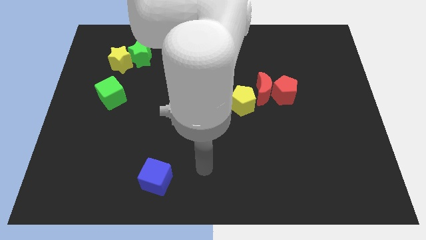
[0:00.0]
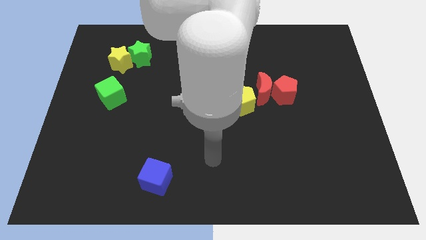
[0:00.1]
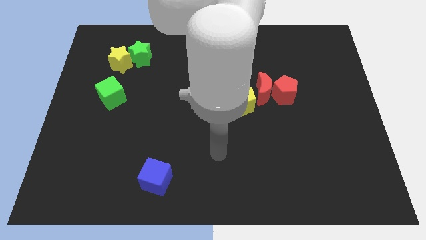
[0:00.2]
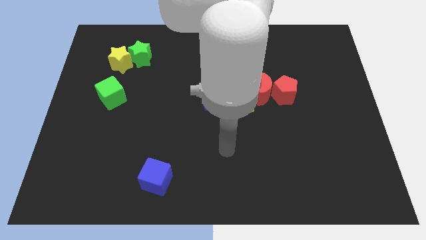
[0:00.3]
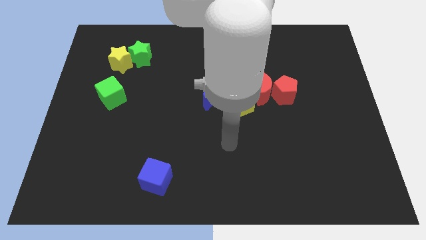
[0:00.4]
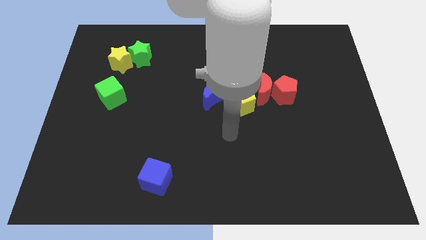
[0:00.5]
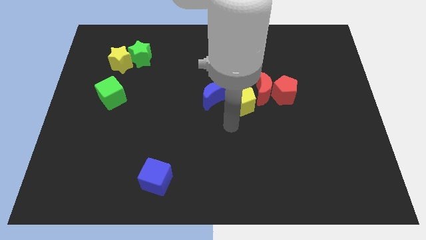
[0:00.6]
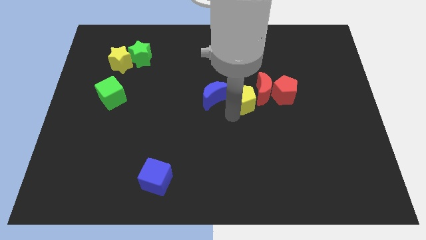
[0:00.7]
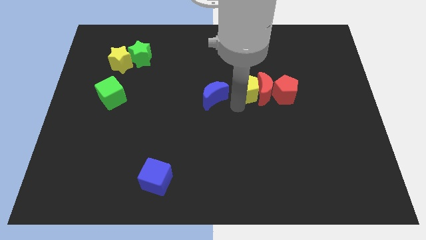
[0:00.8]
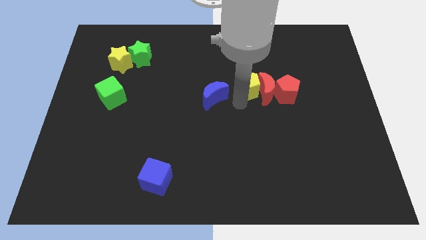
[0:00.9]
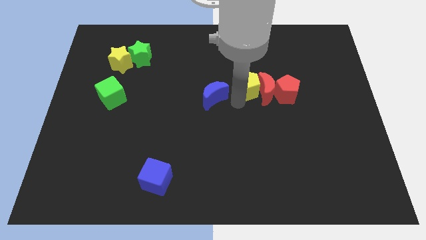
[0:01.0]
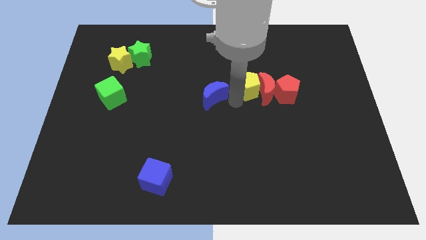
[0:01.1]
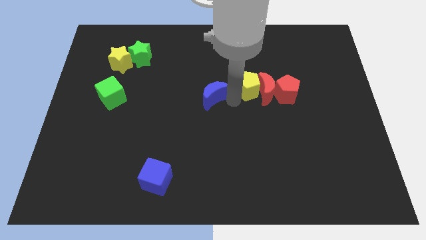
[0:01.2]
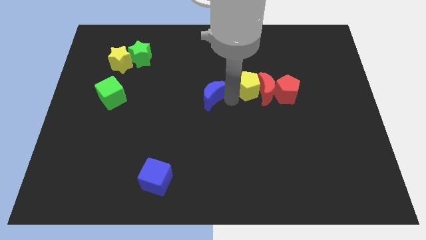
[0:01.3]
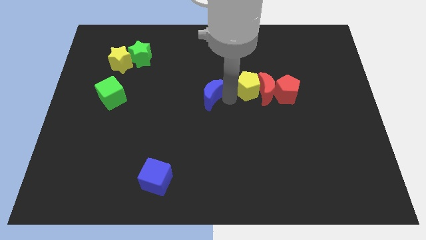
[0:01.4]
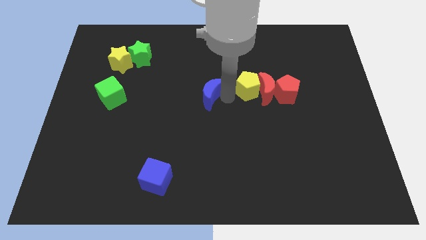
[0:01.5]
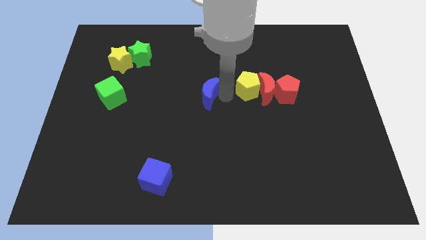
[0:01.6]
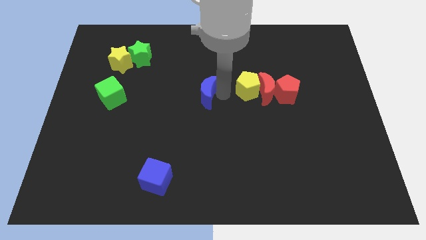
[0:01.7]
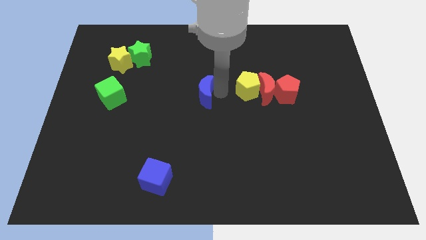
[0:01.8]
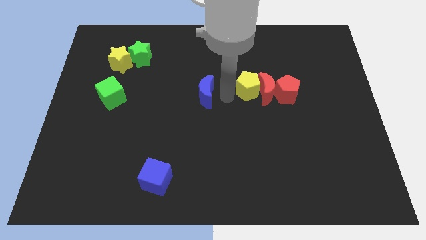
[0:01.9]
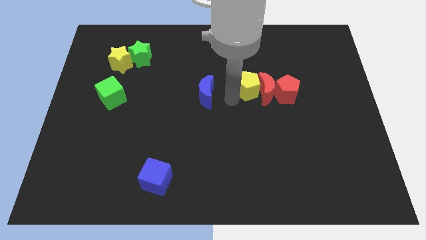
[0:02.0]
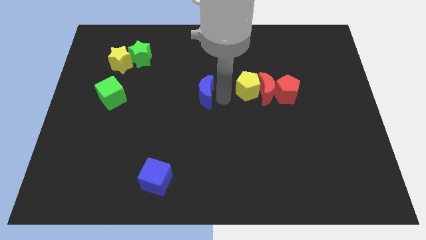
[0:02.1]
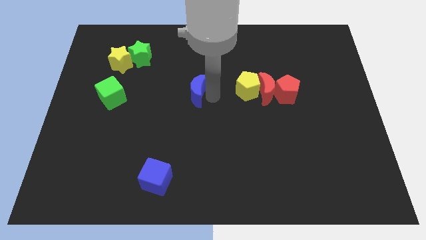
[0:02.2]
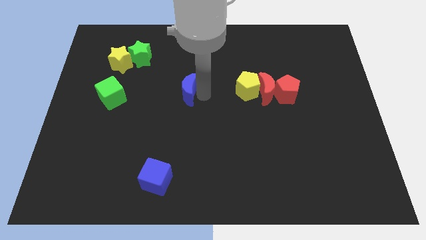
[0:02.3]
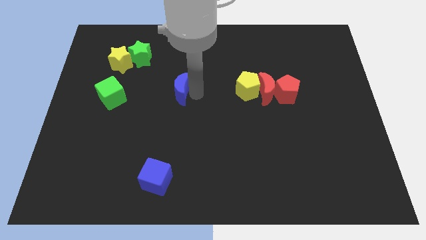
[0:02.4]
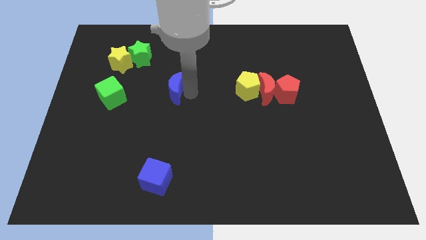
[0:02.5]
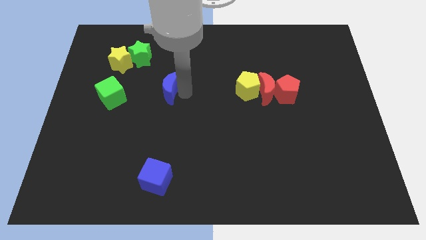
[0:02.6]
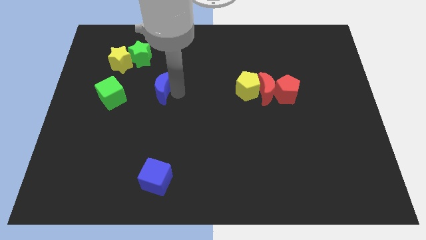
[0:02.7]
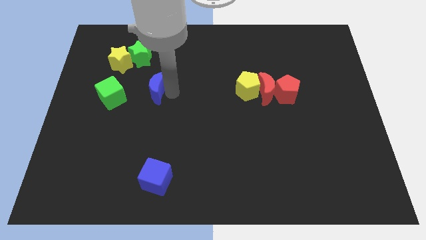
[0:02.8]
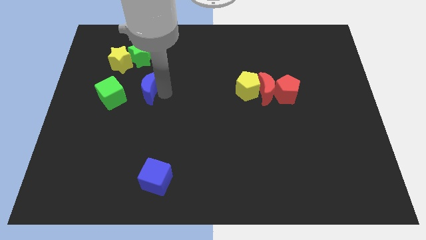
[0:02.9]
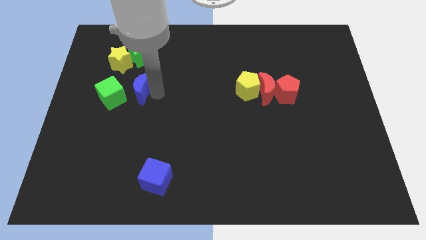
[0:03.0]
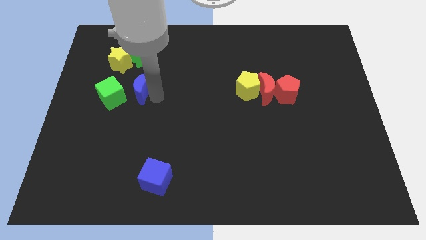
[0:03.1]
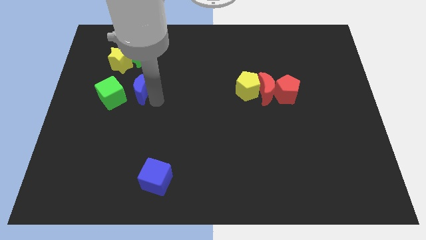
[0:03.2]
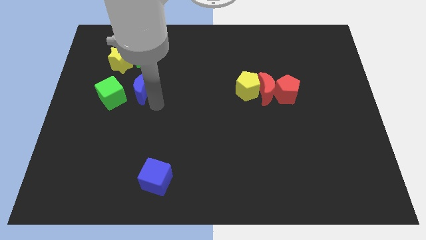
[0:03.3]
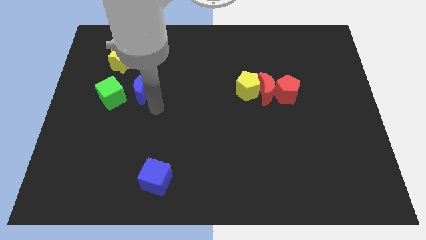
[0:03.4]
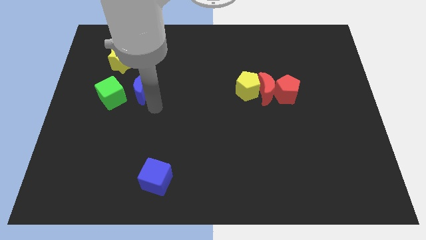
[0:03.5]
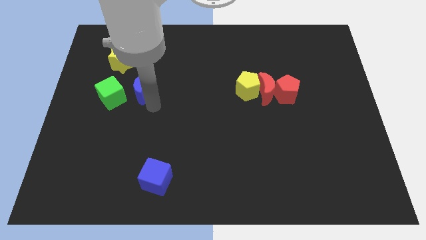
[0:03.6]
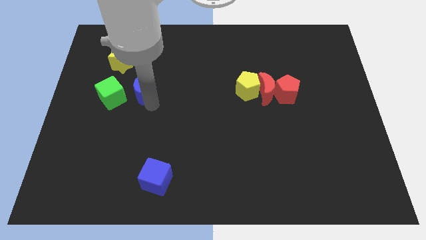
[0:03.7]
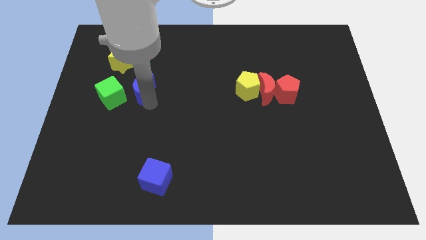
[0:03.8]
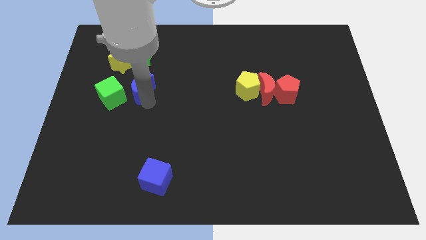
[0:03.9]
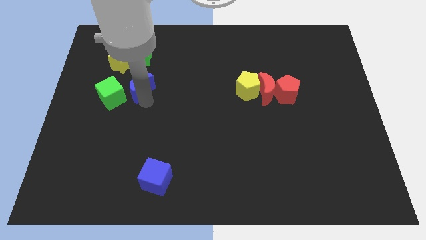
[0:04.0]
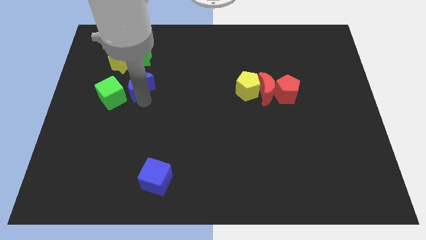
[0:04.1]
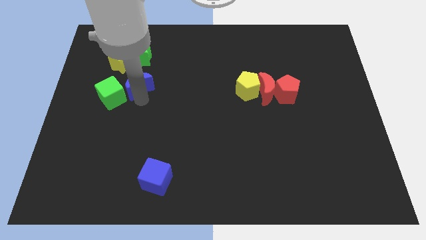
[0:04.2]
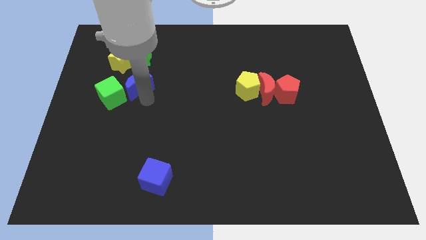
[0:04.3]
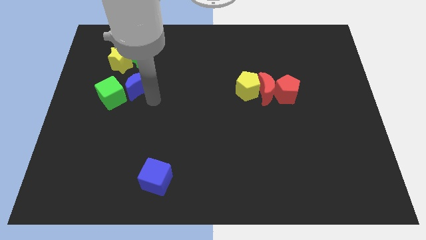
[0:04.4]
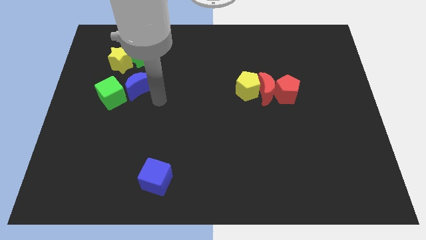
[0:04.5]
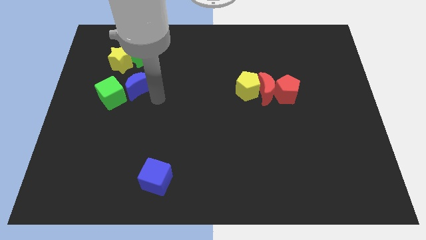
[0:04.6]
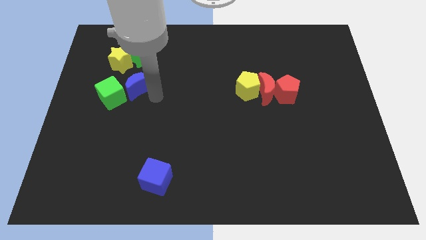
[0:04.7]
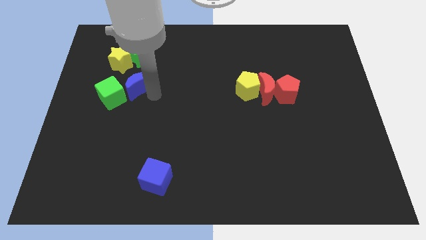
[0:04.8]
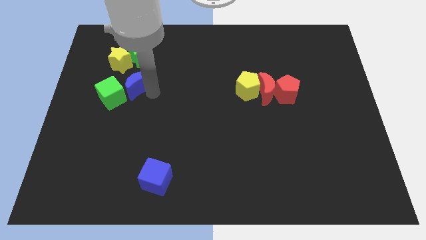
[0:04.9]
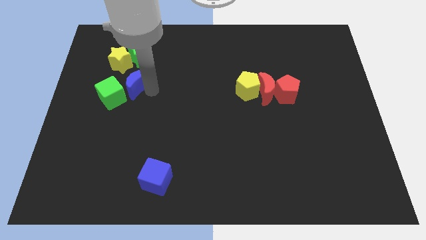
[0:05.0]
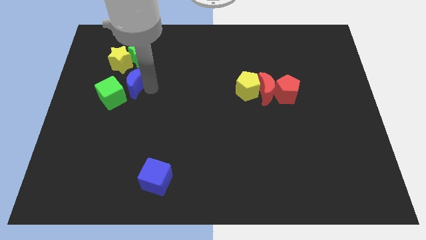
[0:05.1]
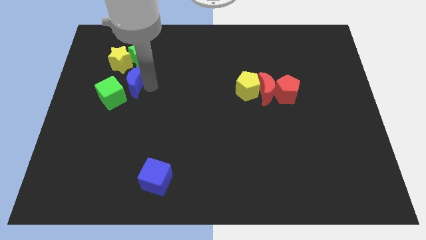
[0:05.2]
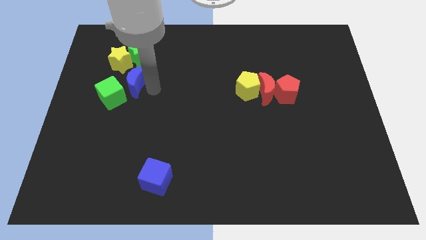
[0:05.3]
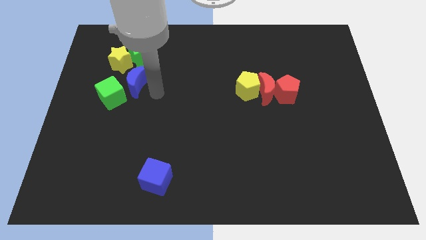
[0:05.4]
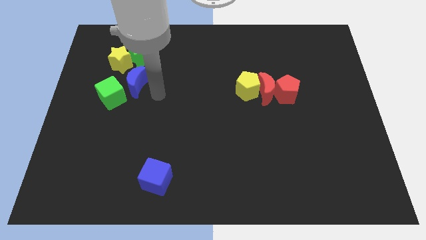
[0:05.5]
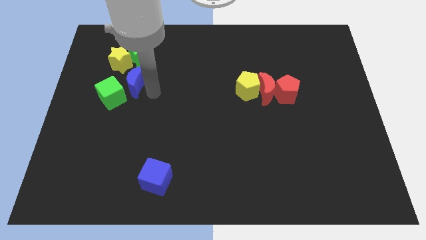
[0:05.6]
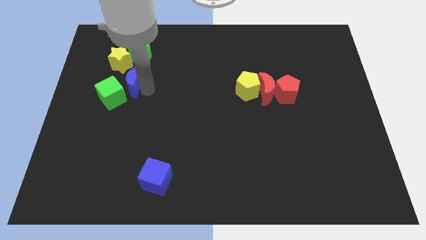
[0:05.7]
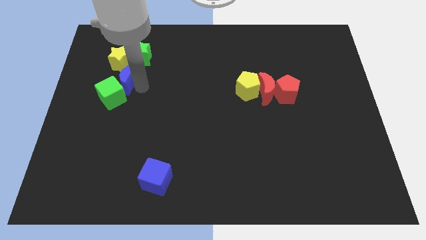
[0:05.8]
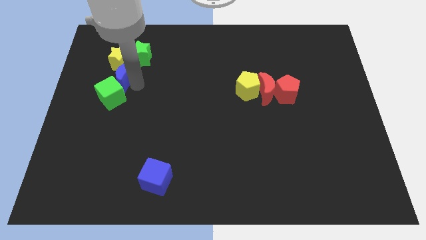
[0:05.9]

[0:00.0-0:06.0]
push the blue moon to the yellow star
